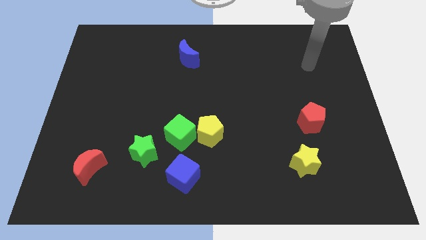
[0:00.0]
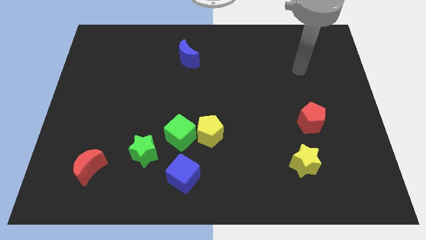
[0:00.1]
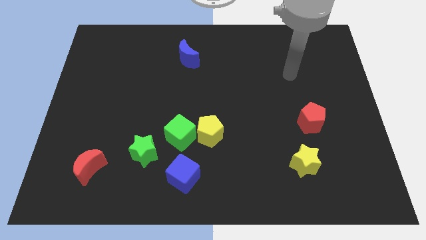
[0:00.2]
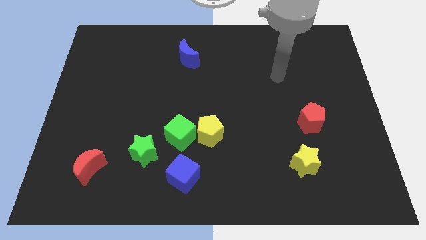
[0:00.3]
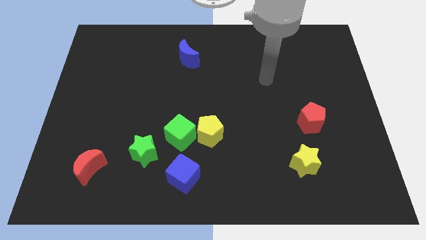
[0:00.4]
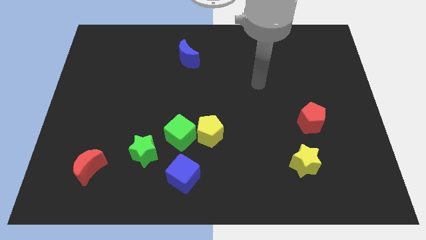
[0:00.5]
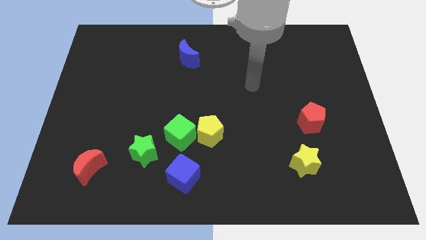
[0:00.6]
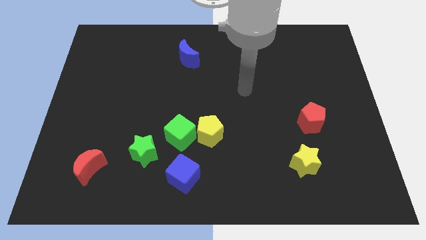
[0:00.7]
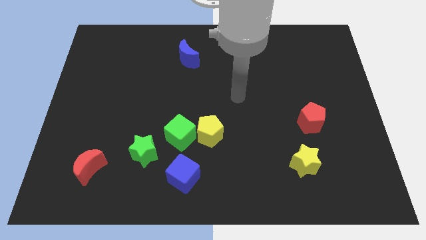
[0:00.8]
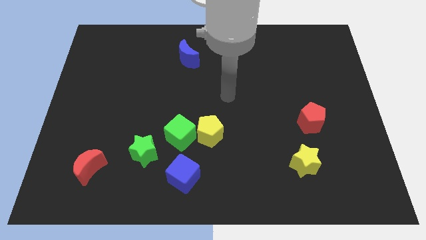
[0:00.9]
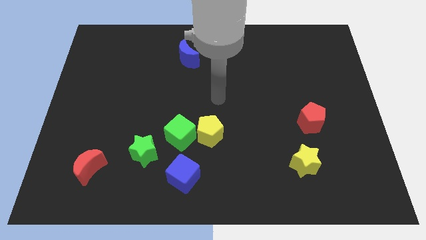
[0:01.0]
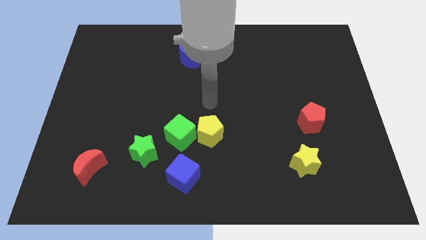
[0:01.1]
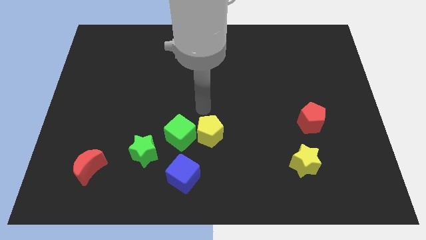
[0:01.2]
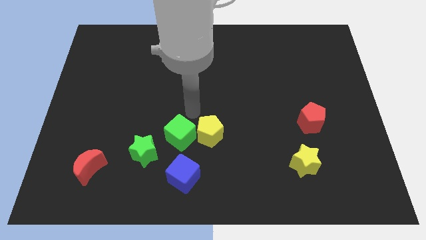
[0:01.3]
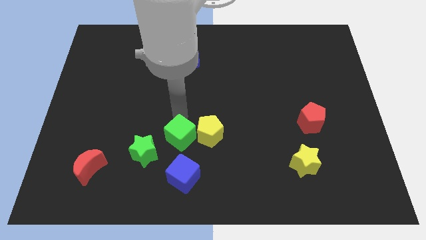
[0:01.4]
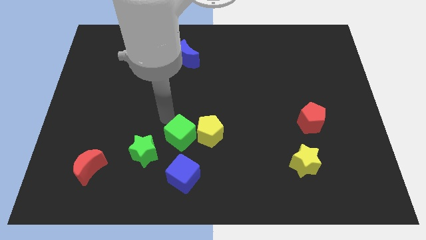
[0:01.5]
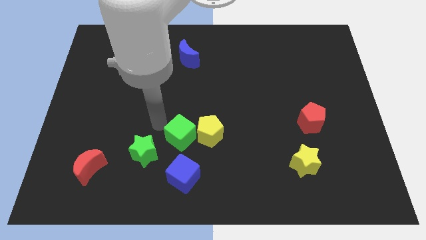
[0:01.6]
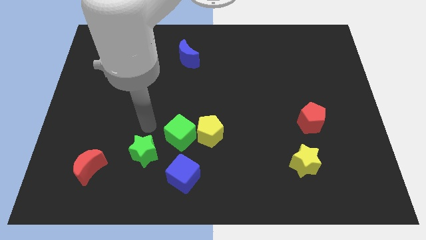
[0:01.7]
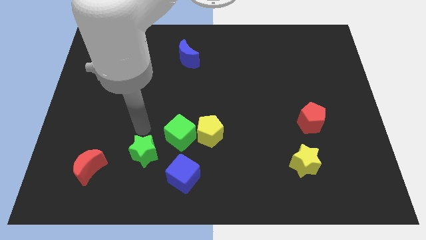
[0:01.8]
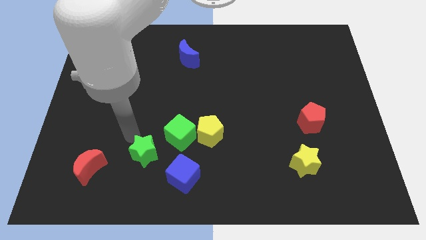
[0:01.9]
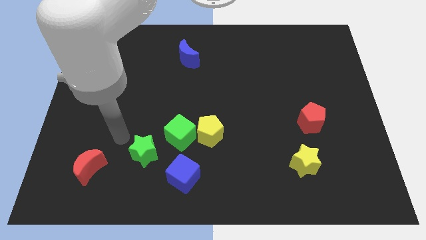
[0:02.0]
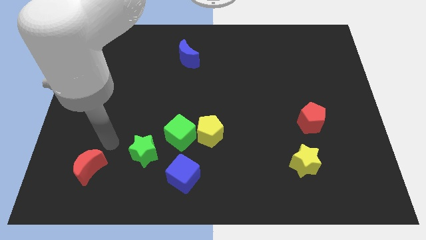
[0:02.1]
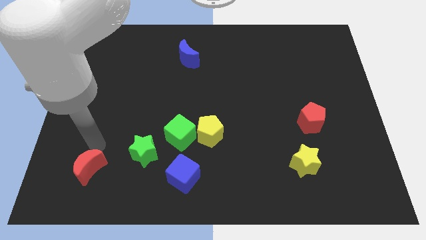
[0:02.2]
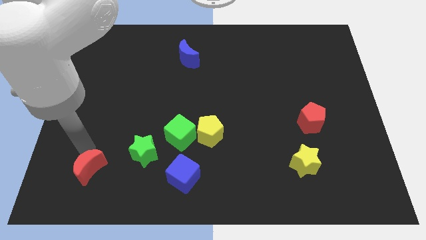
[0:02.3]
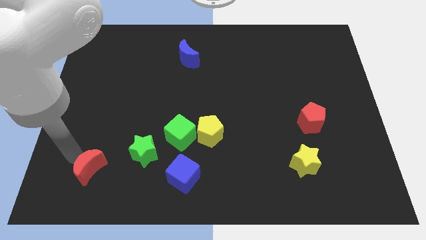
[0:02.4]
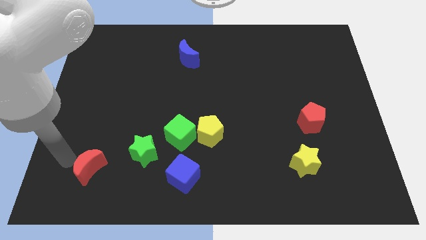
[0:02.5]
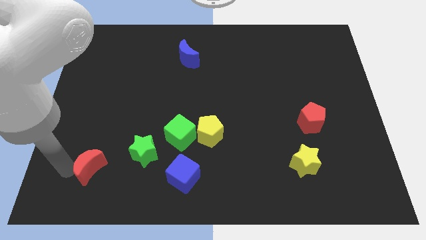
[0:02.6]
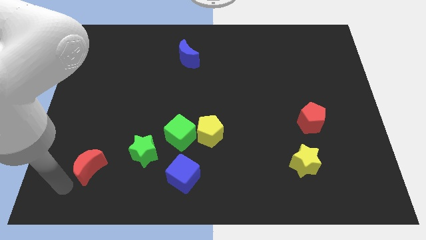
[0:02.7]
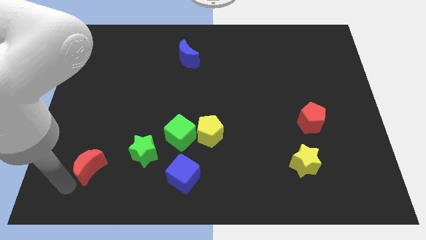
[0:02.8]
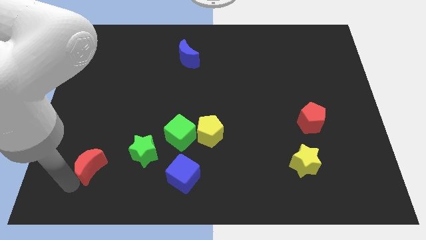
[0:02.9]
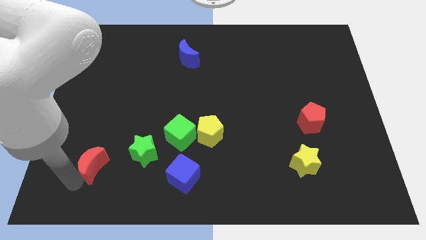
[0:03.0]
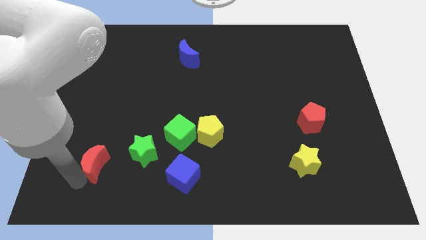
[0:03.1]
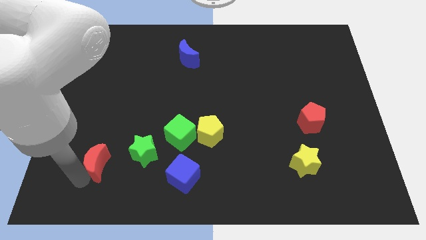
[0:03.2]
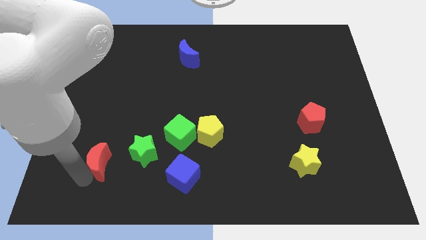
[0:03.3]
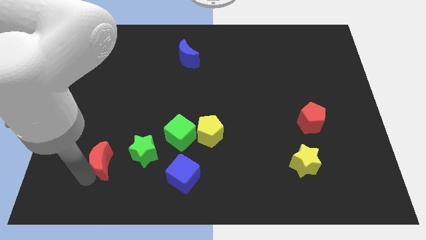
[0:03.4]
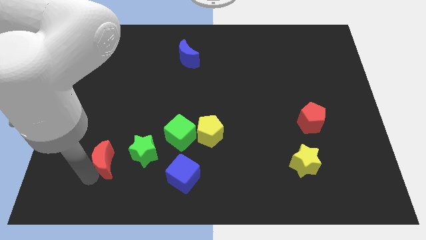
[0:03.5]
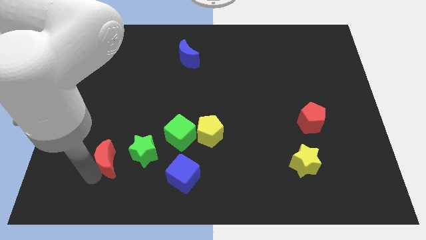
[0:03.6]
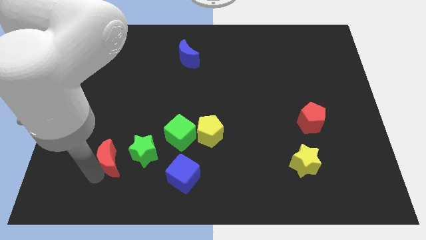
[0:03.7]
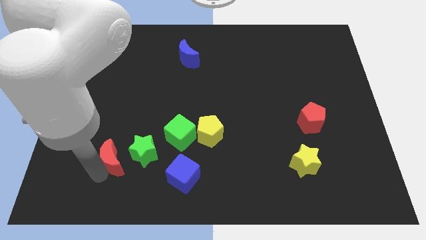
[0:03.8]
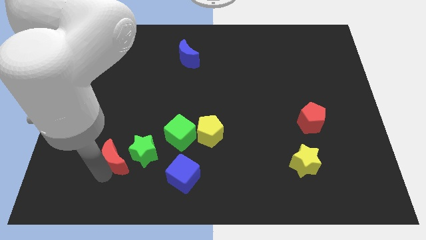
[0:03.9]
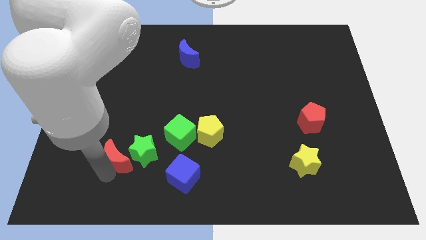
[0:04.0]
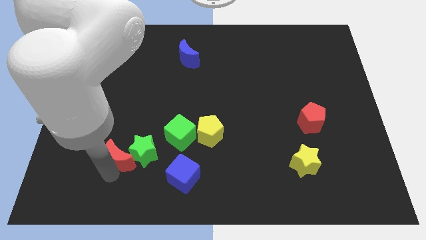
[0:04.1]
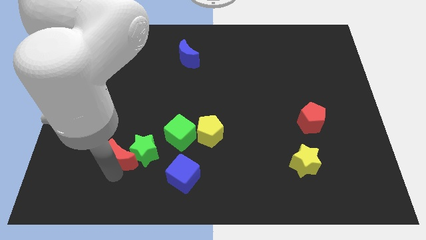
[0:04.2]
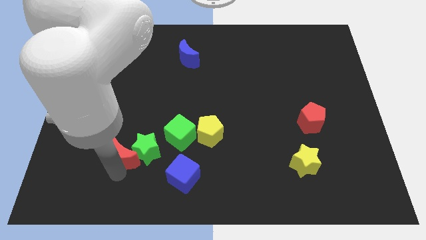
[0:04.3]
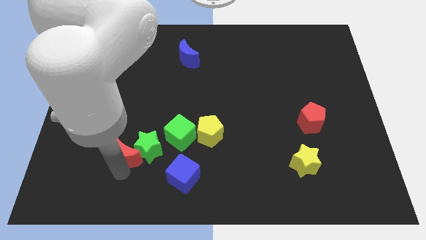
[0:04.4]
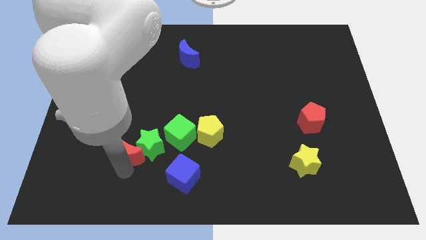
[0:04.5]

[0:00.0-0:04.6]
move the red moon upwards and right a little

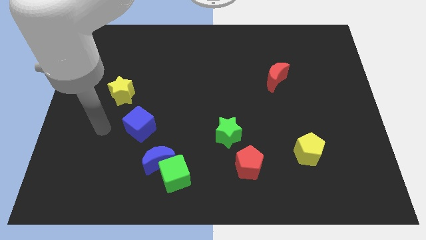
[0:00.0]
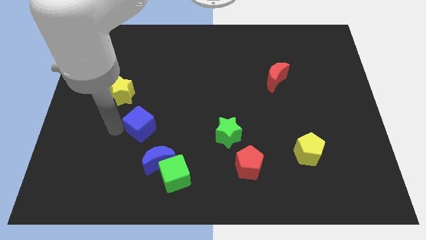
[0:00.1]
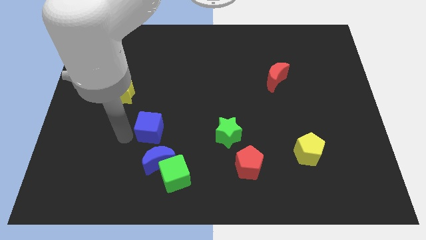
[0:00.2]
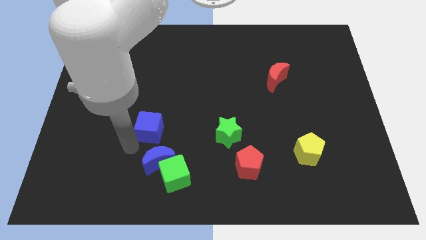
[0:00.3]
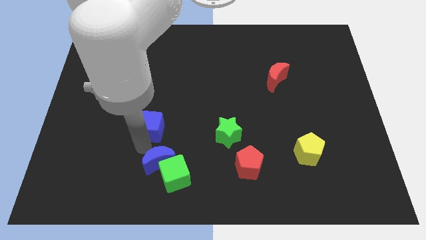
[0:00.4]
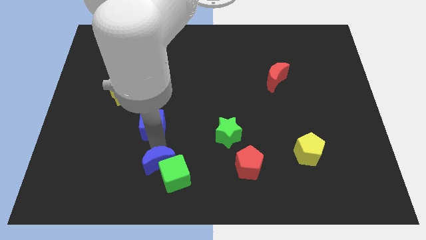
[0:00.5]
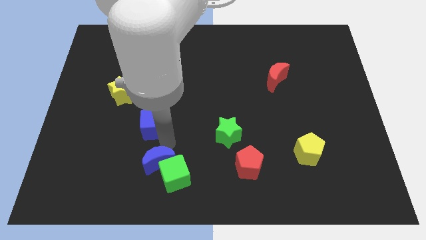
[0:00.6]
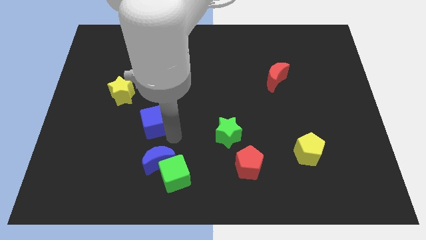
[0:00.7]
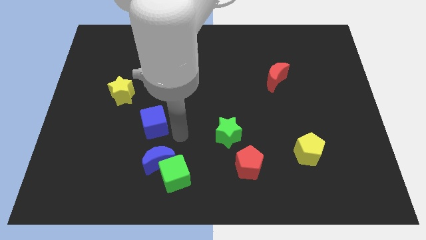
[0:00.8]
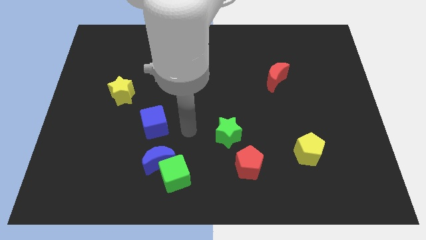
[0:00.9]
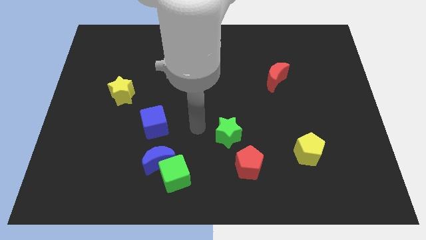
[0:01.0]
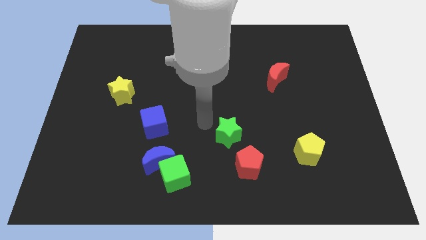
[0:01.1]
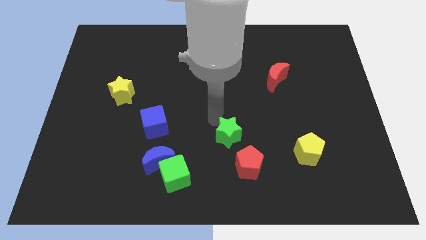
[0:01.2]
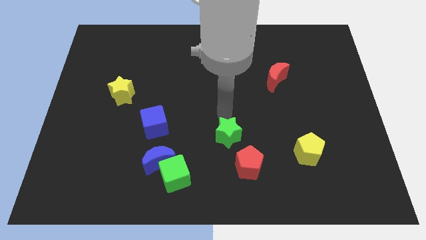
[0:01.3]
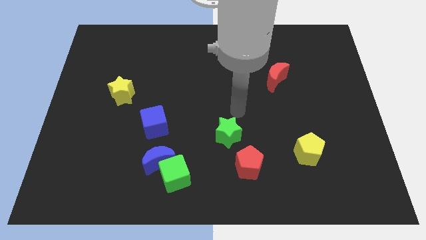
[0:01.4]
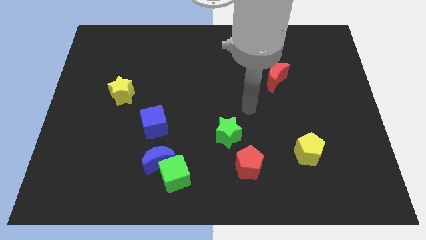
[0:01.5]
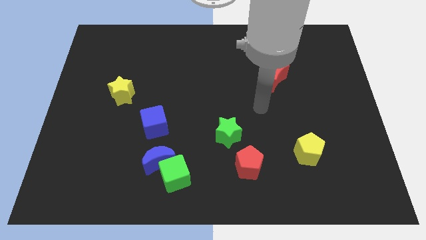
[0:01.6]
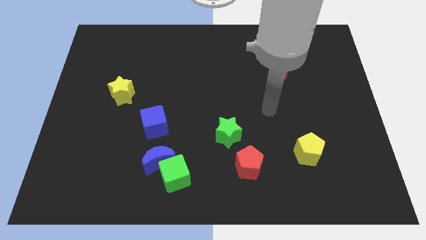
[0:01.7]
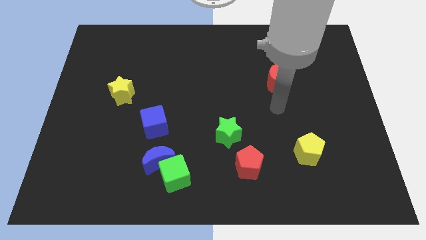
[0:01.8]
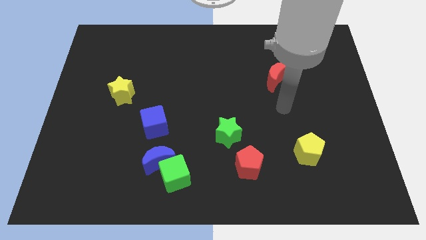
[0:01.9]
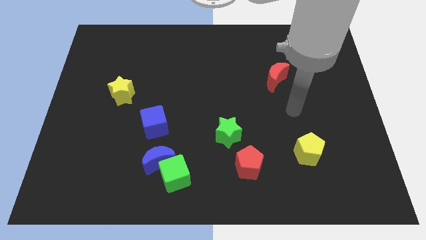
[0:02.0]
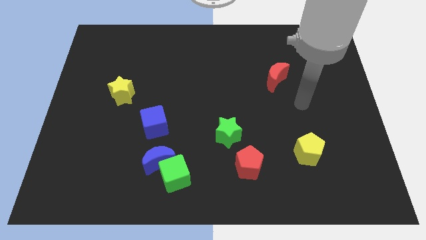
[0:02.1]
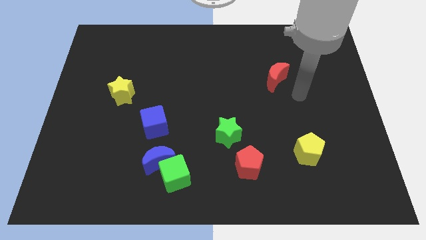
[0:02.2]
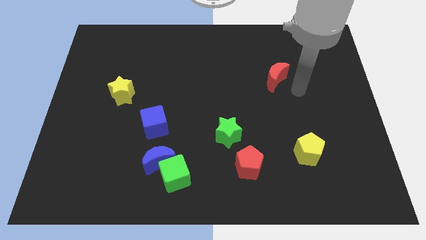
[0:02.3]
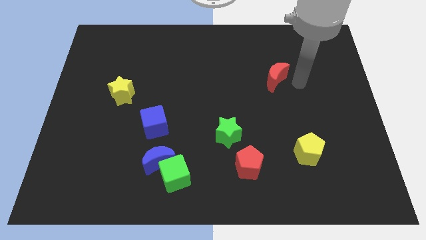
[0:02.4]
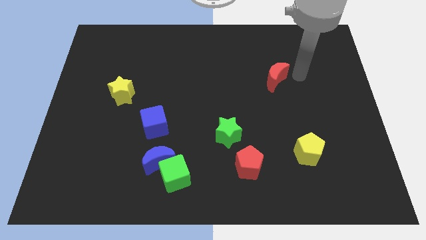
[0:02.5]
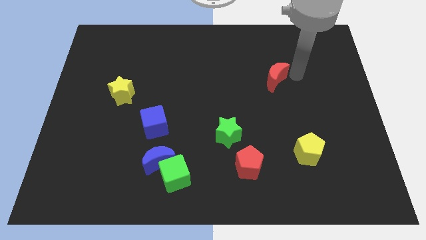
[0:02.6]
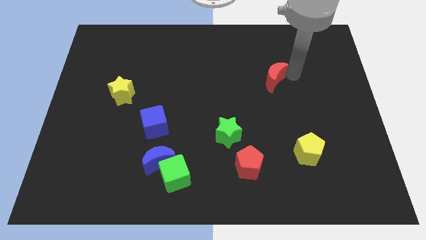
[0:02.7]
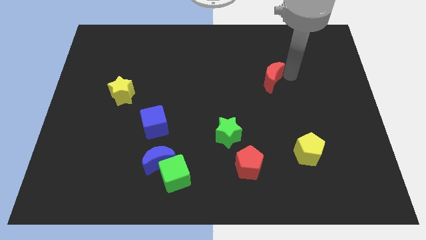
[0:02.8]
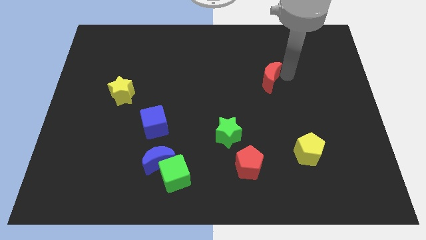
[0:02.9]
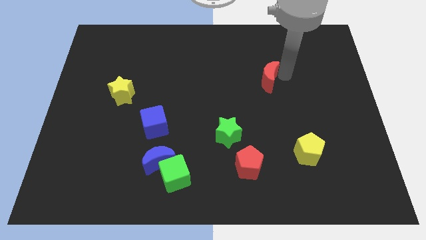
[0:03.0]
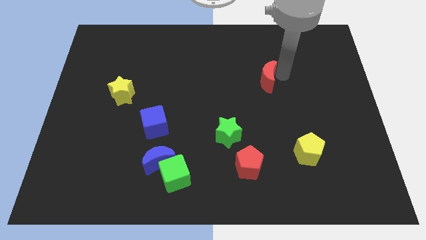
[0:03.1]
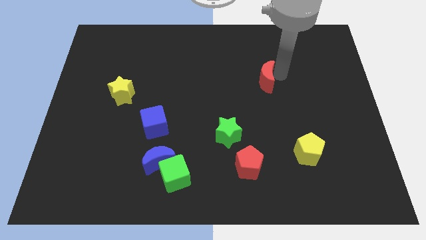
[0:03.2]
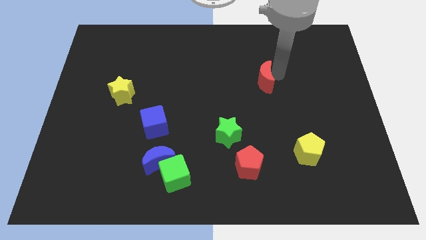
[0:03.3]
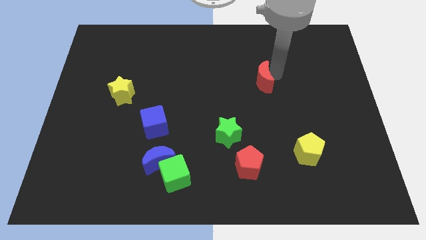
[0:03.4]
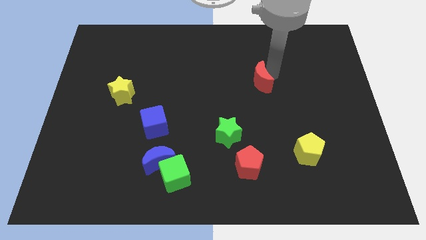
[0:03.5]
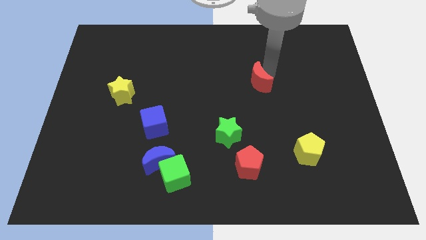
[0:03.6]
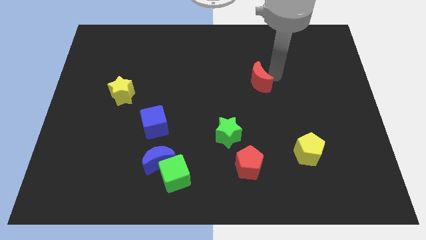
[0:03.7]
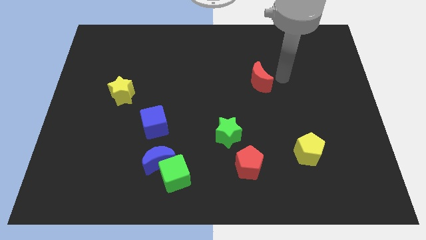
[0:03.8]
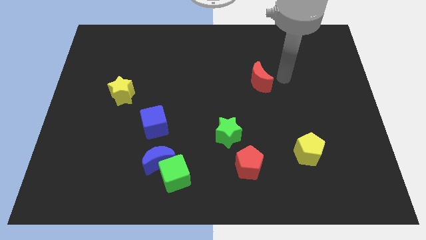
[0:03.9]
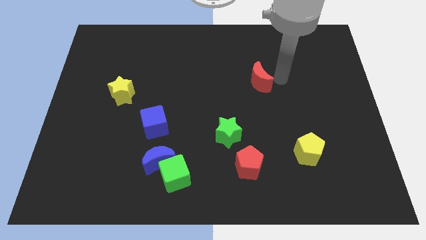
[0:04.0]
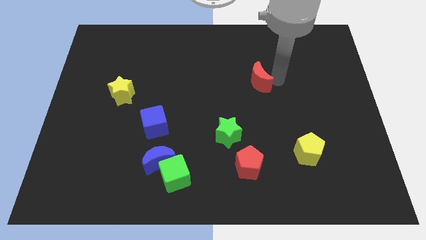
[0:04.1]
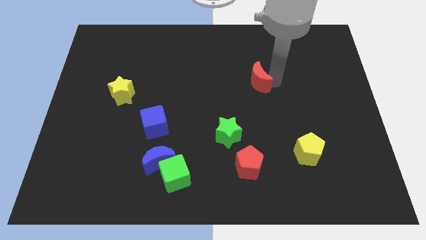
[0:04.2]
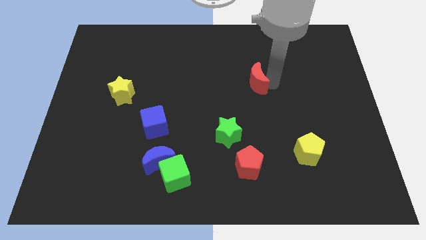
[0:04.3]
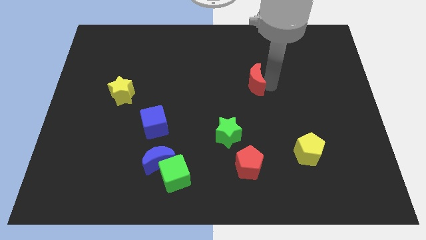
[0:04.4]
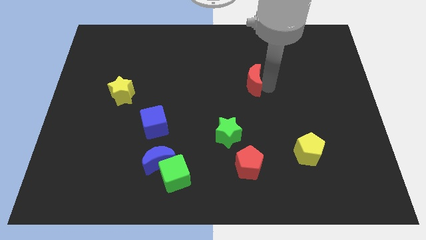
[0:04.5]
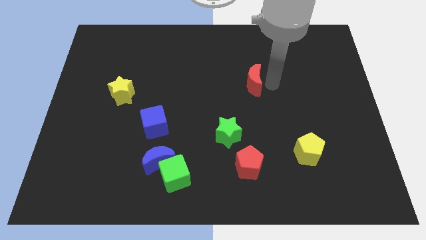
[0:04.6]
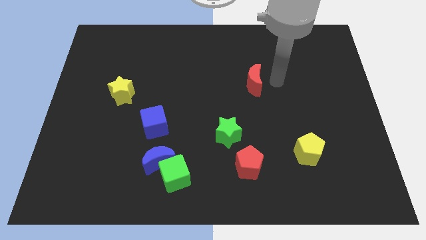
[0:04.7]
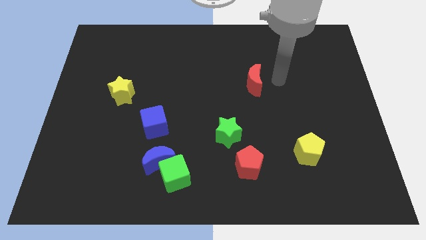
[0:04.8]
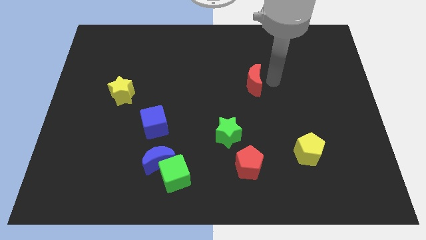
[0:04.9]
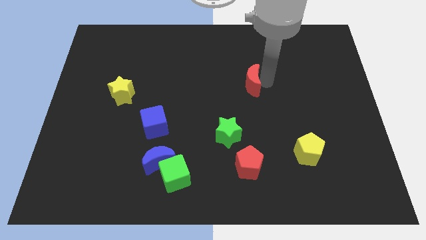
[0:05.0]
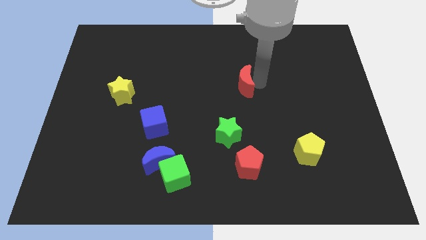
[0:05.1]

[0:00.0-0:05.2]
move the red moon to the left a bit
